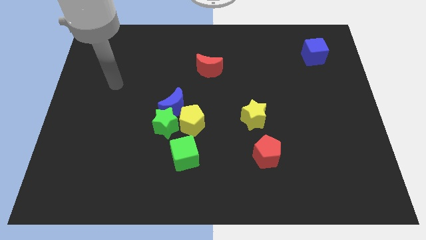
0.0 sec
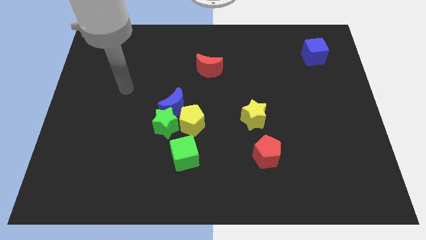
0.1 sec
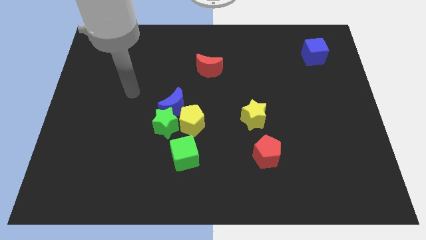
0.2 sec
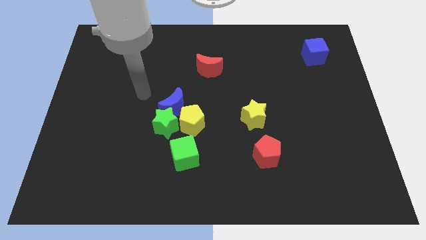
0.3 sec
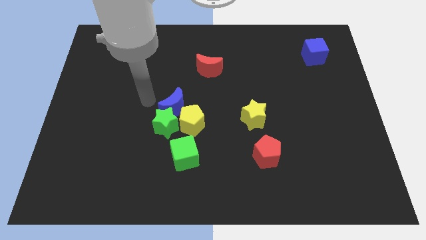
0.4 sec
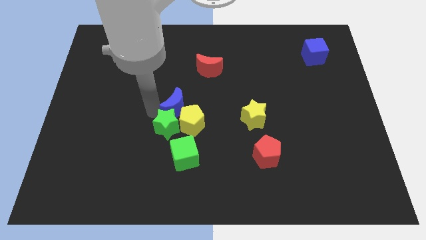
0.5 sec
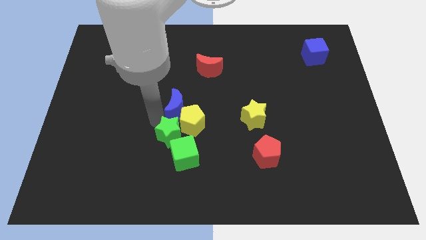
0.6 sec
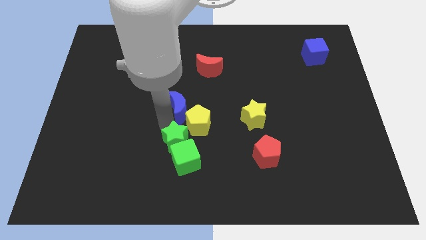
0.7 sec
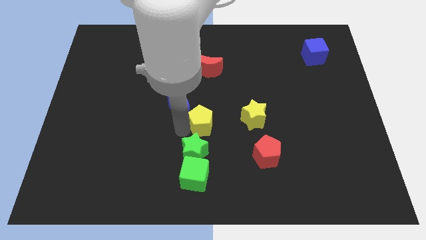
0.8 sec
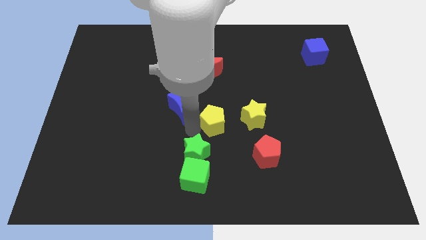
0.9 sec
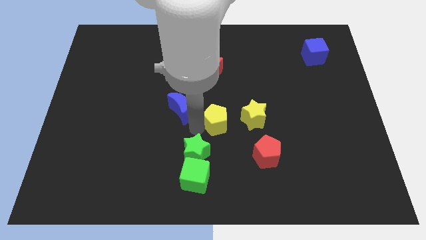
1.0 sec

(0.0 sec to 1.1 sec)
move the blue moon away from the green star and yellow pentagon

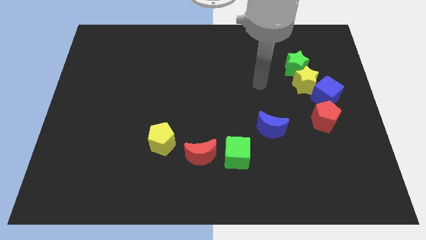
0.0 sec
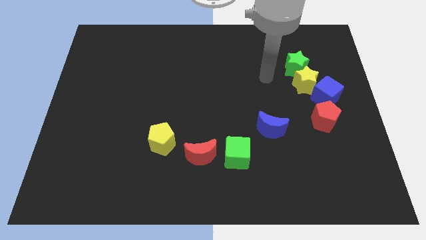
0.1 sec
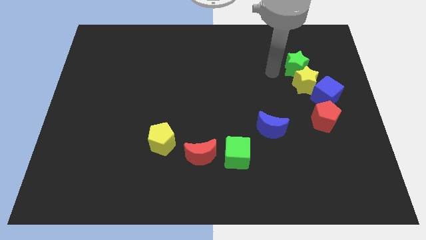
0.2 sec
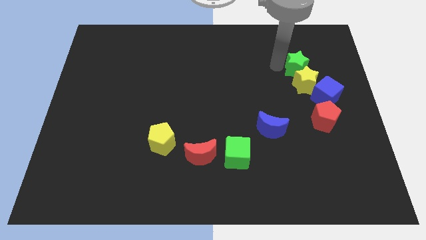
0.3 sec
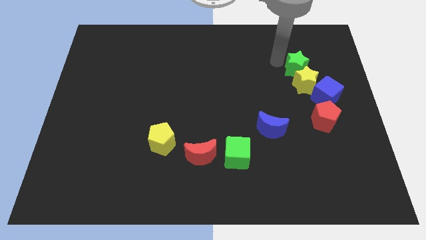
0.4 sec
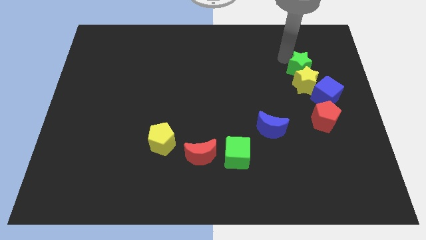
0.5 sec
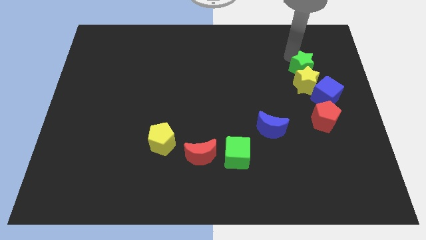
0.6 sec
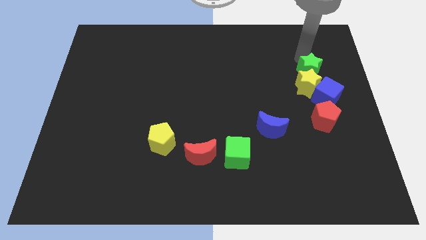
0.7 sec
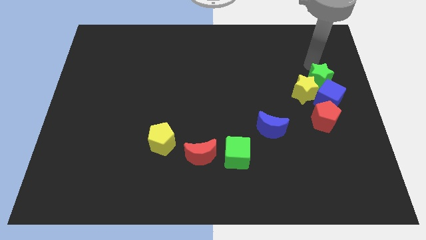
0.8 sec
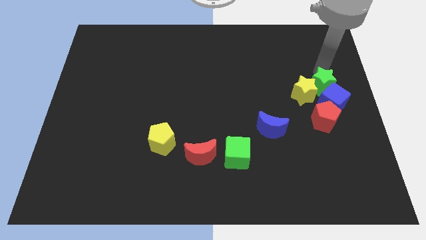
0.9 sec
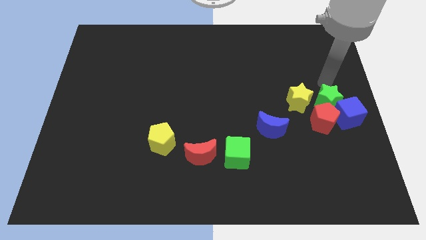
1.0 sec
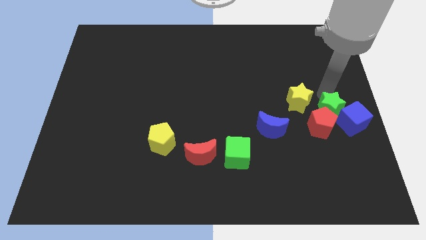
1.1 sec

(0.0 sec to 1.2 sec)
pull the yellow star apart from the blue cube and green star

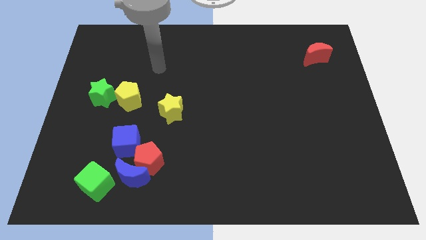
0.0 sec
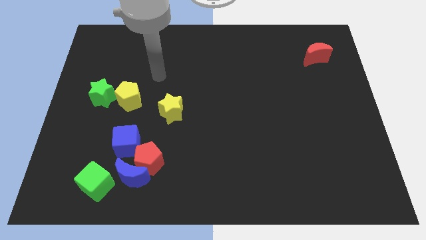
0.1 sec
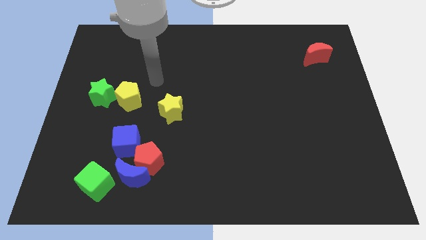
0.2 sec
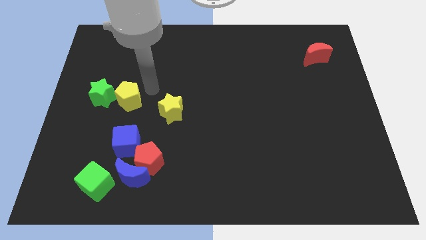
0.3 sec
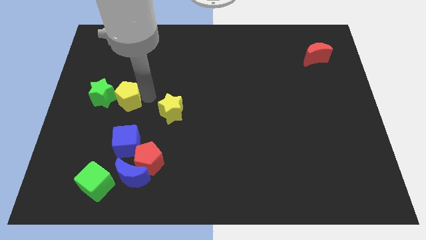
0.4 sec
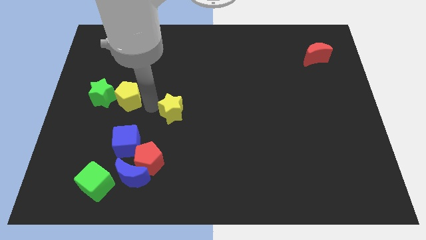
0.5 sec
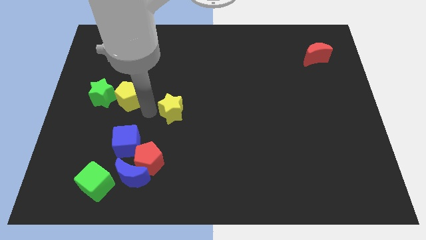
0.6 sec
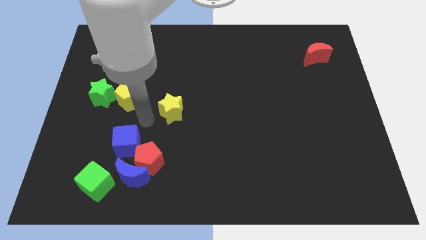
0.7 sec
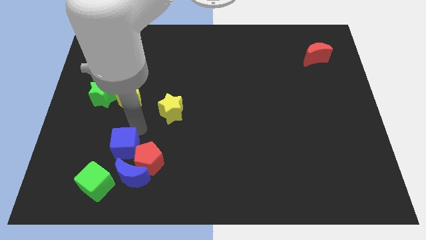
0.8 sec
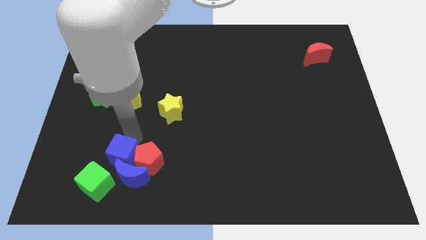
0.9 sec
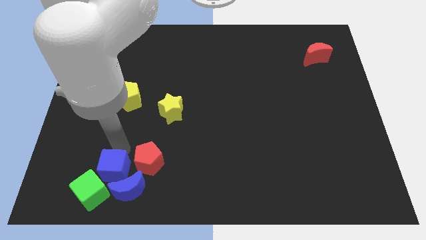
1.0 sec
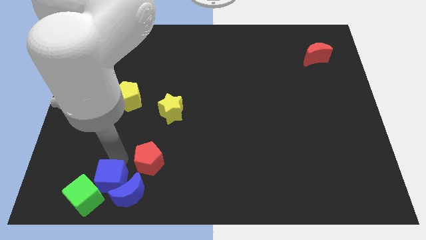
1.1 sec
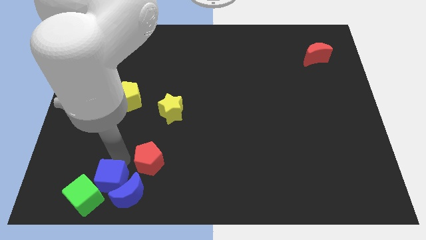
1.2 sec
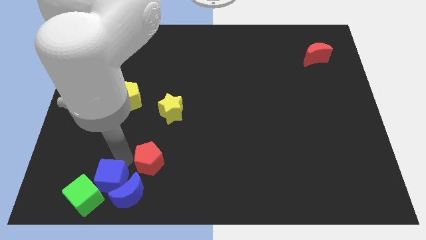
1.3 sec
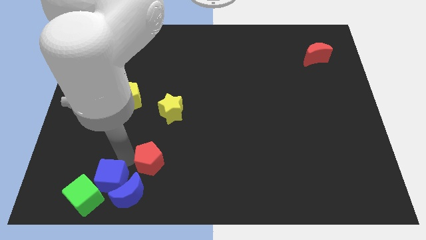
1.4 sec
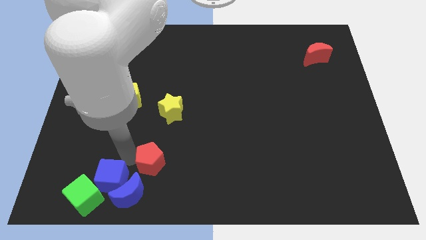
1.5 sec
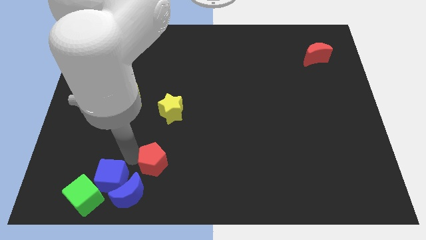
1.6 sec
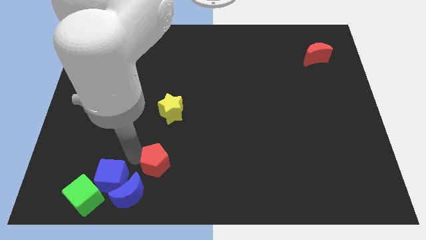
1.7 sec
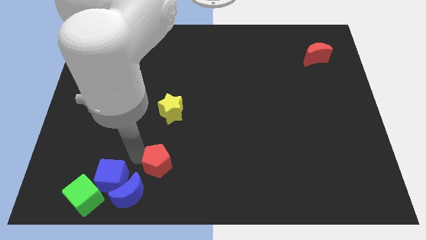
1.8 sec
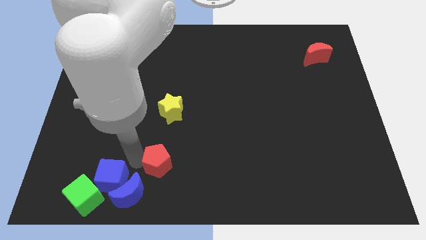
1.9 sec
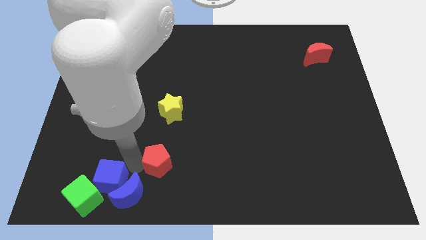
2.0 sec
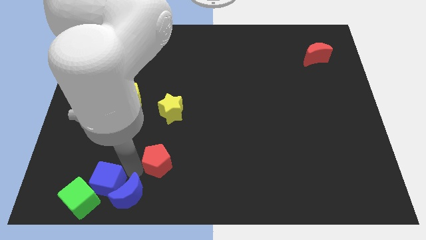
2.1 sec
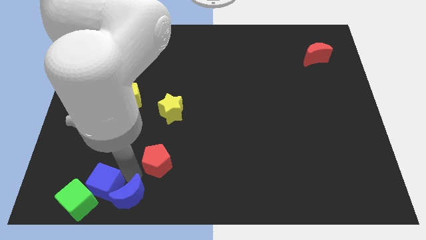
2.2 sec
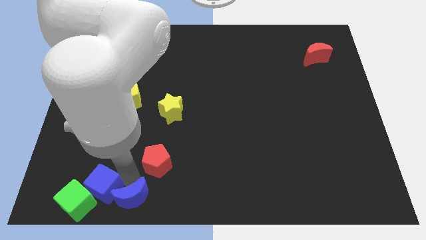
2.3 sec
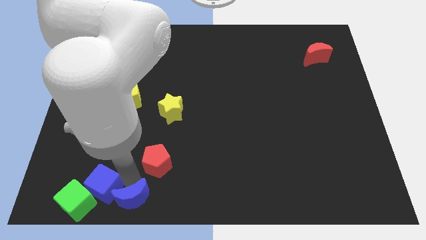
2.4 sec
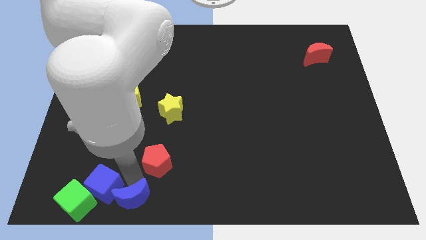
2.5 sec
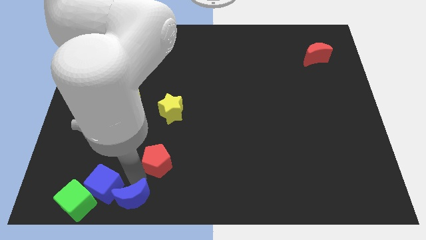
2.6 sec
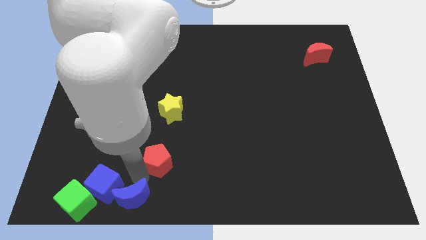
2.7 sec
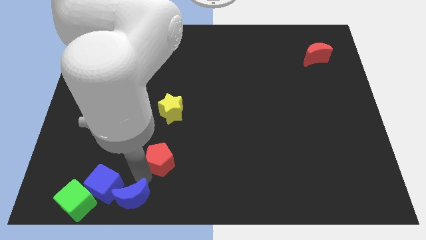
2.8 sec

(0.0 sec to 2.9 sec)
pull the red pentagon apart from the blue moon and blue cube

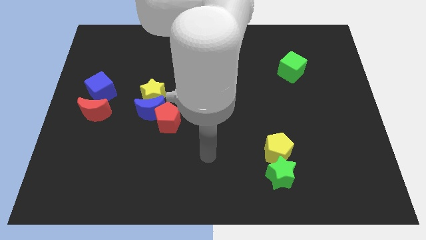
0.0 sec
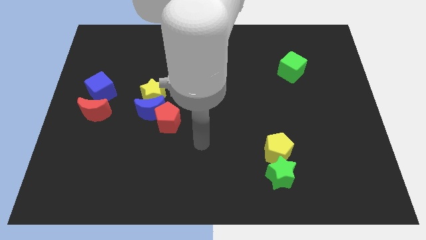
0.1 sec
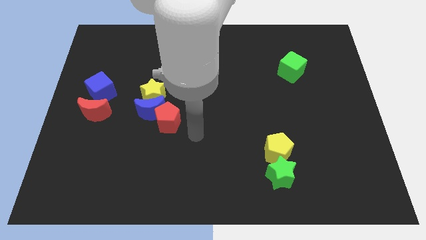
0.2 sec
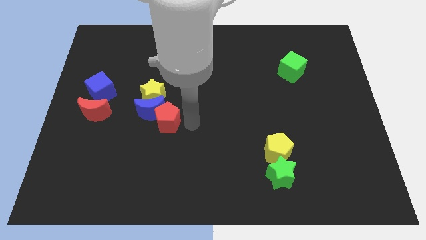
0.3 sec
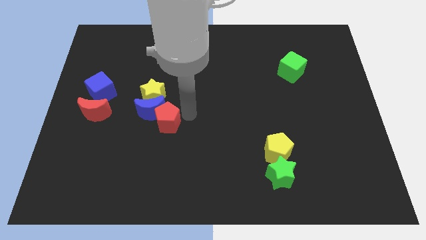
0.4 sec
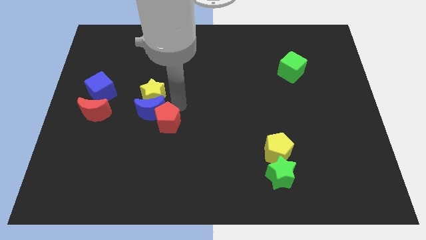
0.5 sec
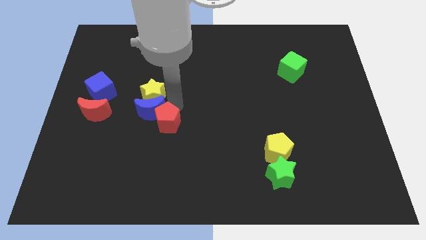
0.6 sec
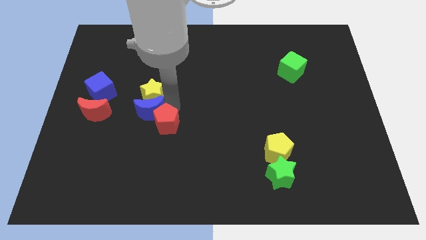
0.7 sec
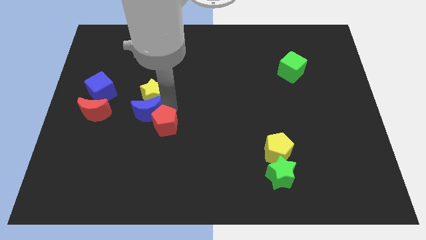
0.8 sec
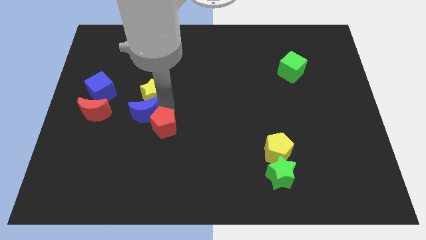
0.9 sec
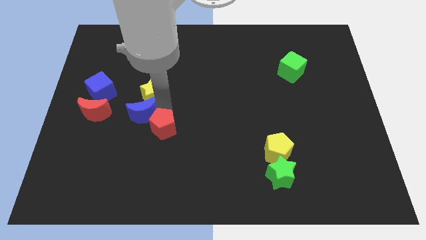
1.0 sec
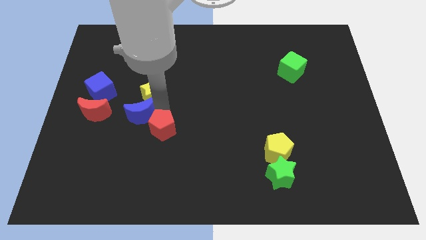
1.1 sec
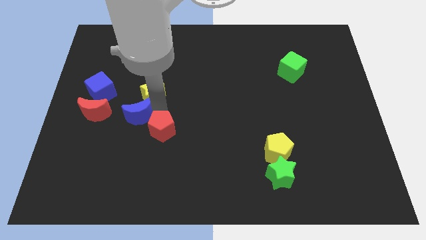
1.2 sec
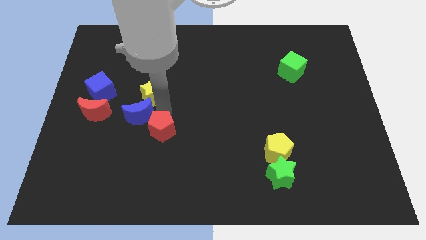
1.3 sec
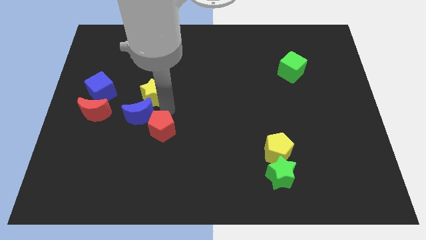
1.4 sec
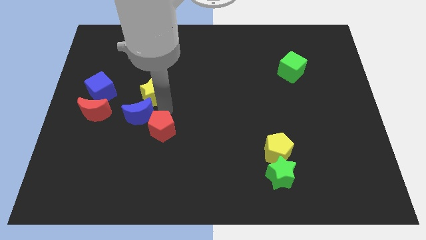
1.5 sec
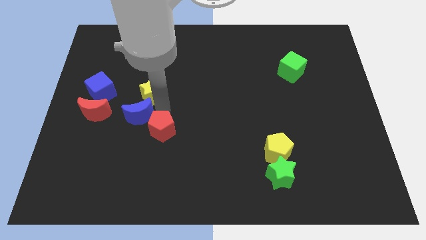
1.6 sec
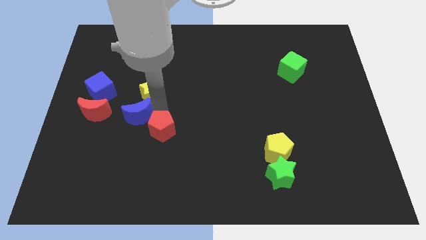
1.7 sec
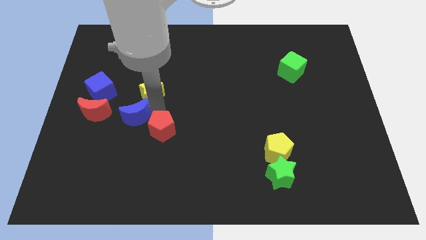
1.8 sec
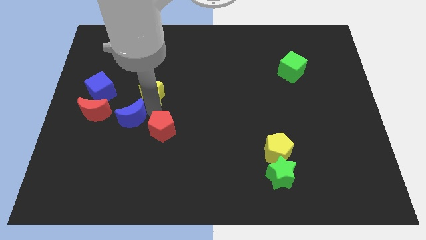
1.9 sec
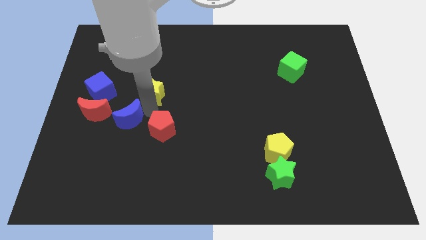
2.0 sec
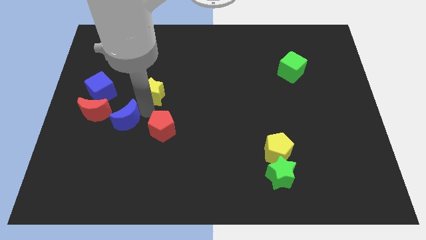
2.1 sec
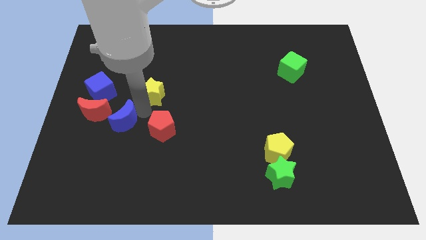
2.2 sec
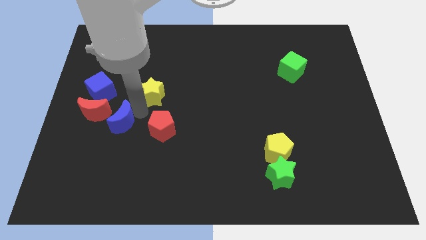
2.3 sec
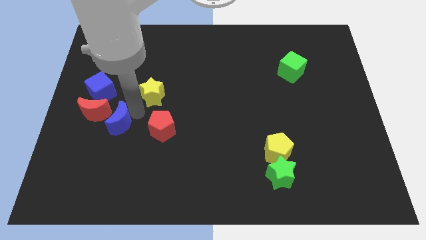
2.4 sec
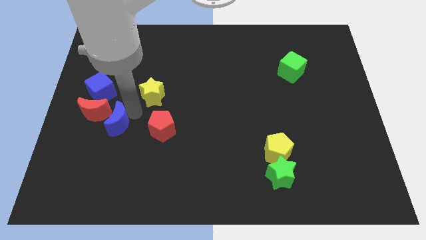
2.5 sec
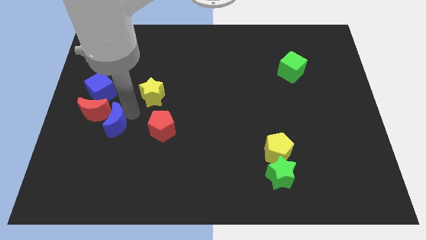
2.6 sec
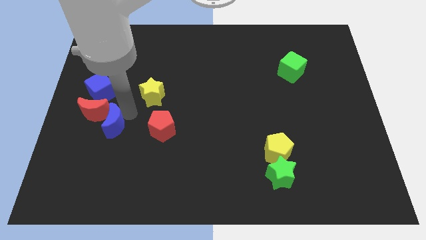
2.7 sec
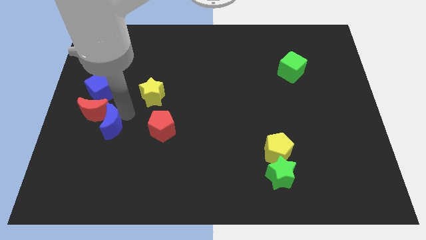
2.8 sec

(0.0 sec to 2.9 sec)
move the blue moon away from the yellow star and red pentagon

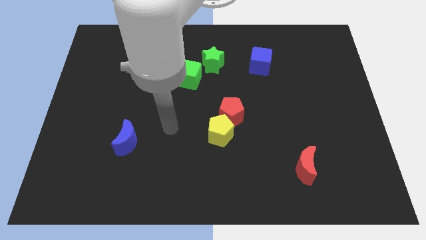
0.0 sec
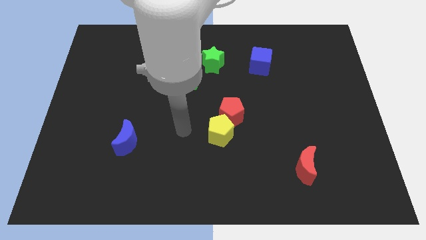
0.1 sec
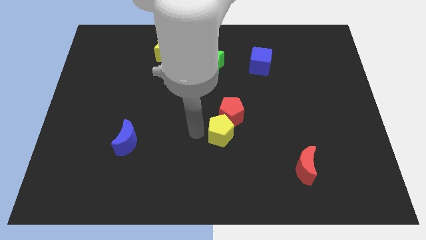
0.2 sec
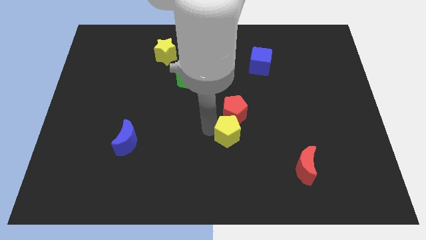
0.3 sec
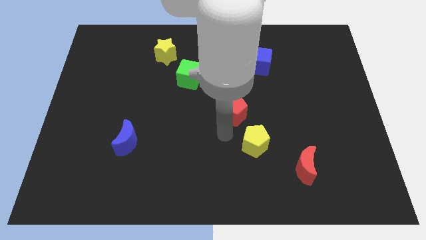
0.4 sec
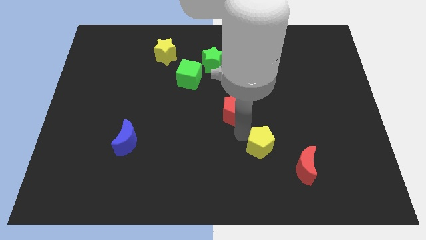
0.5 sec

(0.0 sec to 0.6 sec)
move the red pentagon away from the yellow pentagon

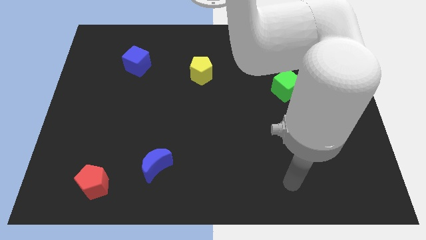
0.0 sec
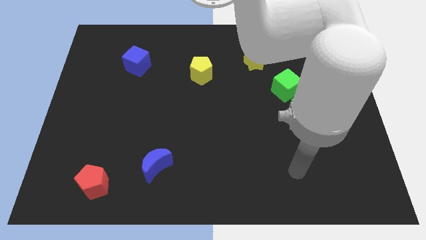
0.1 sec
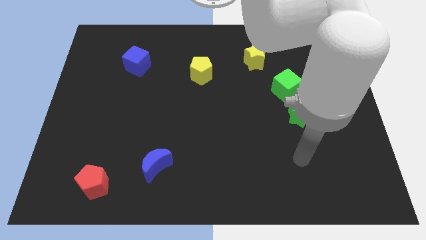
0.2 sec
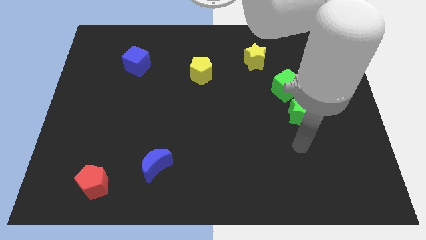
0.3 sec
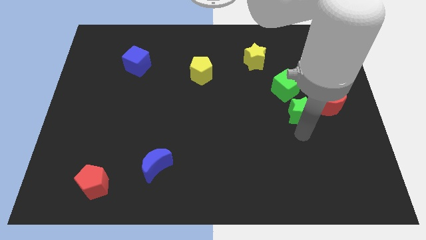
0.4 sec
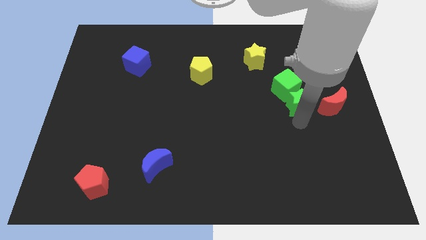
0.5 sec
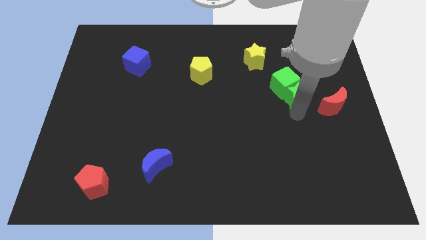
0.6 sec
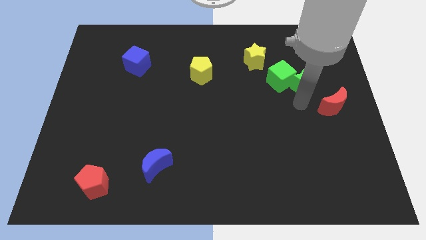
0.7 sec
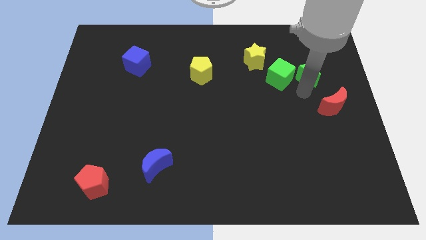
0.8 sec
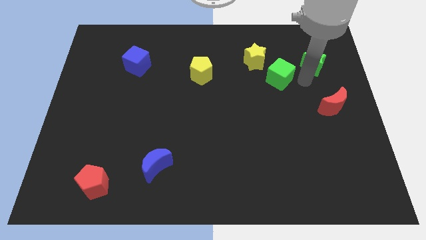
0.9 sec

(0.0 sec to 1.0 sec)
move the green cube away from the green star
